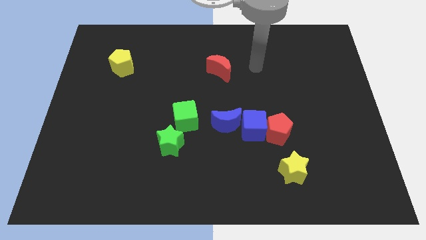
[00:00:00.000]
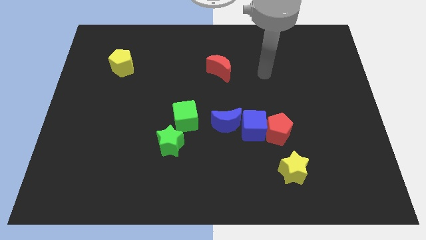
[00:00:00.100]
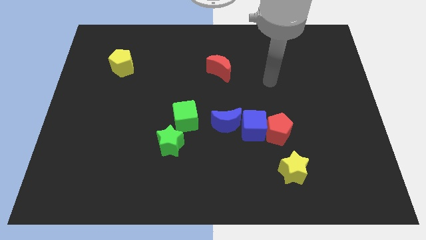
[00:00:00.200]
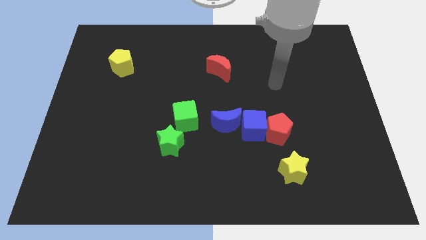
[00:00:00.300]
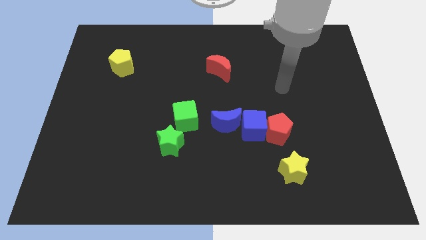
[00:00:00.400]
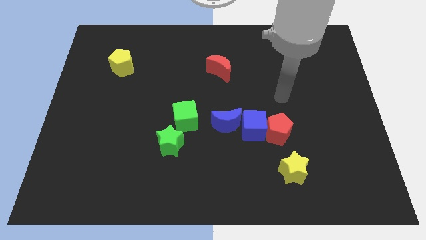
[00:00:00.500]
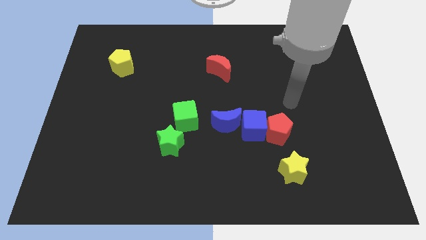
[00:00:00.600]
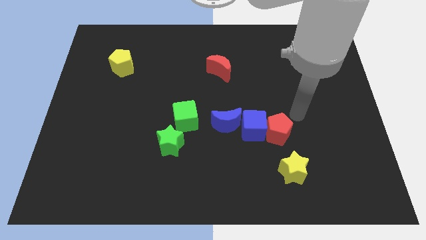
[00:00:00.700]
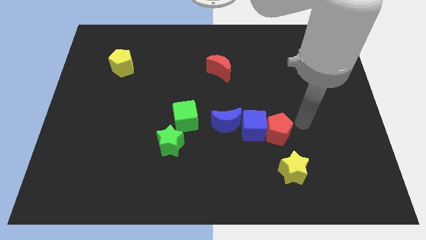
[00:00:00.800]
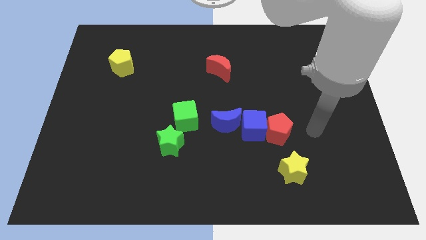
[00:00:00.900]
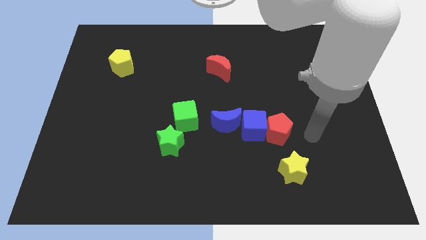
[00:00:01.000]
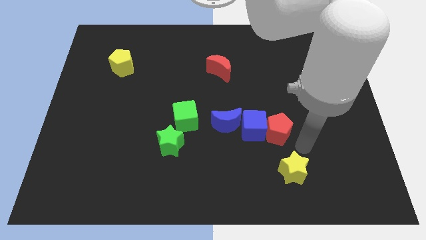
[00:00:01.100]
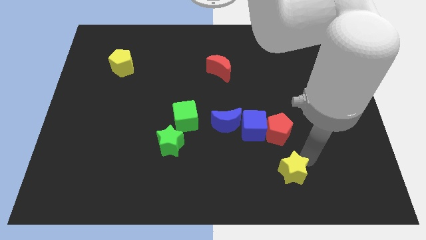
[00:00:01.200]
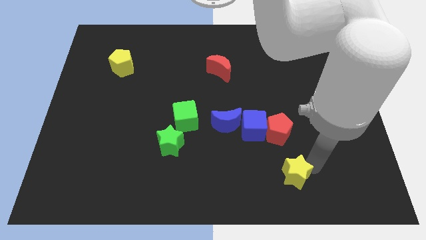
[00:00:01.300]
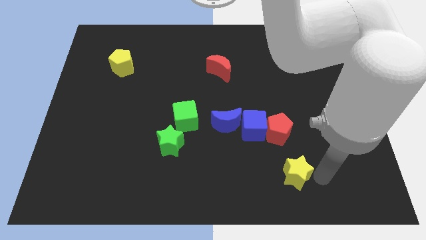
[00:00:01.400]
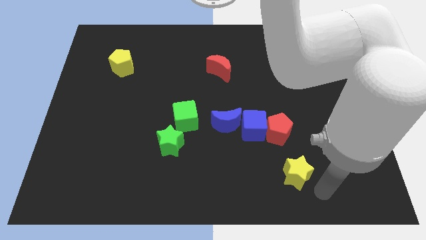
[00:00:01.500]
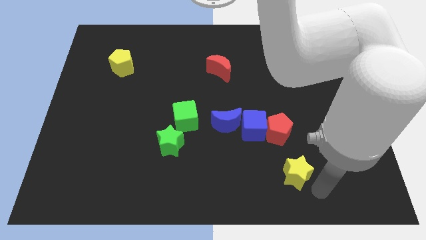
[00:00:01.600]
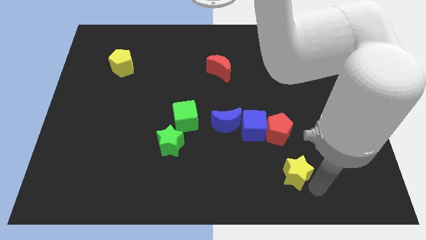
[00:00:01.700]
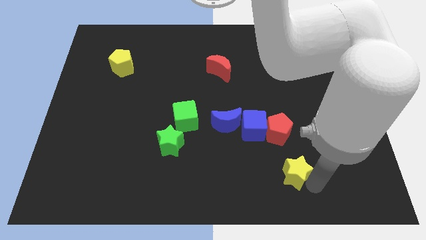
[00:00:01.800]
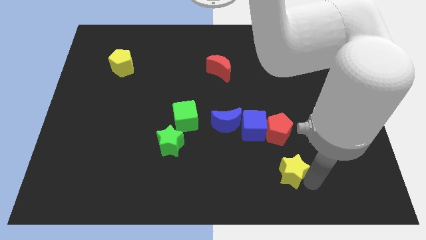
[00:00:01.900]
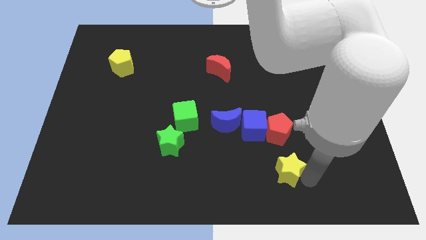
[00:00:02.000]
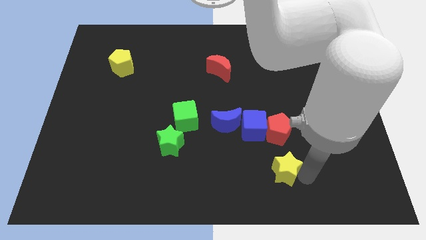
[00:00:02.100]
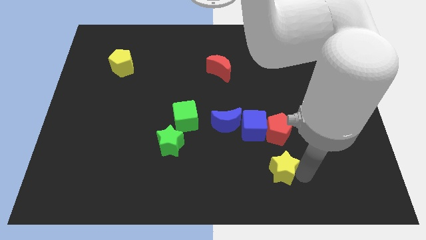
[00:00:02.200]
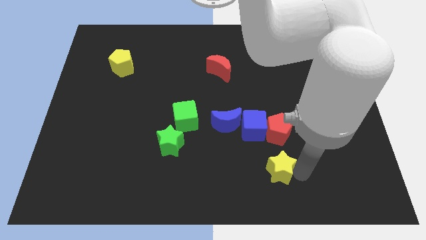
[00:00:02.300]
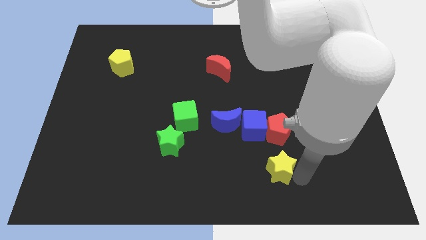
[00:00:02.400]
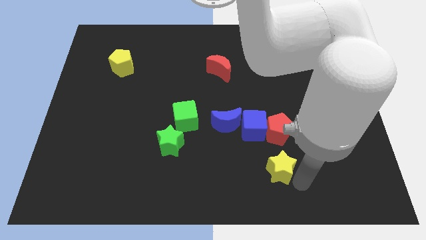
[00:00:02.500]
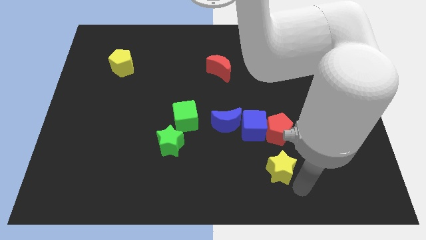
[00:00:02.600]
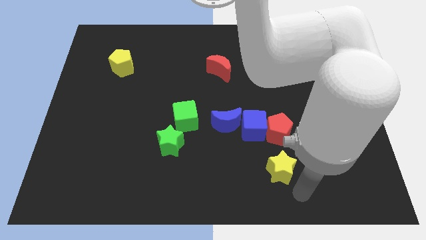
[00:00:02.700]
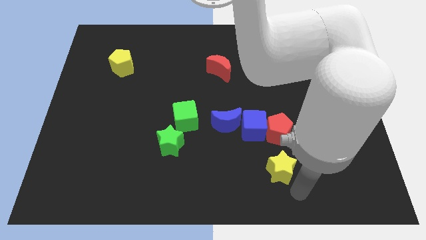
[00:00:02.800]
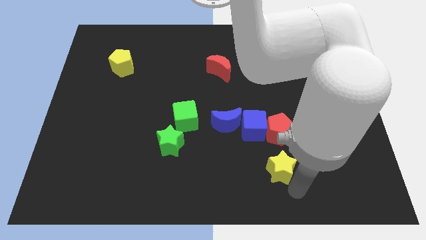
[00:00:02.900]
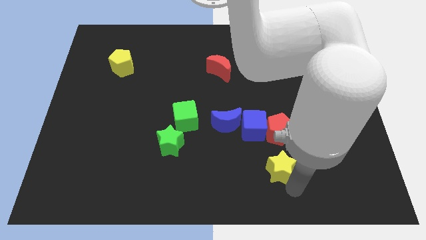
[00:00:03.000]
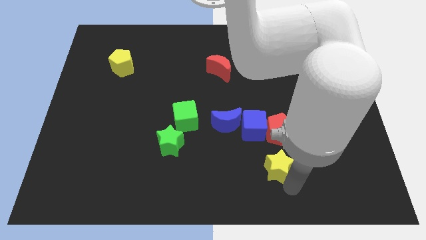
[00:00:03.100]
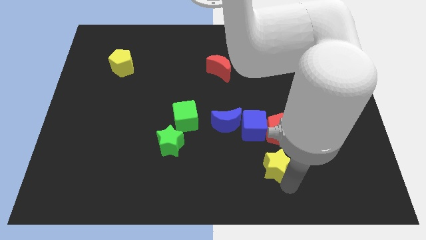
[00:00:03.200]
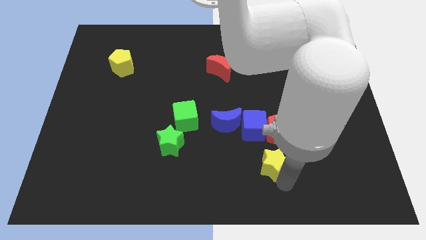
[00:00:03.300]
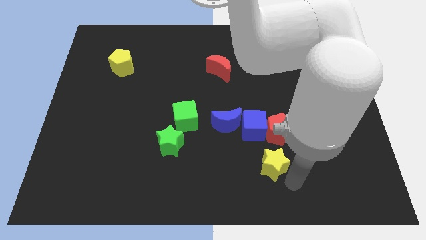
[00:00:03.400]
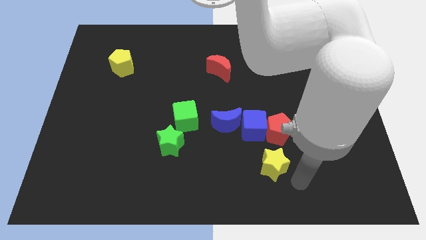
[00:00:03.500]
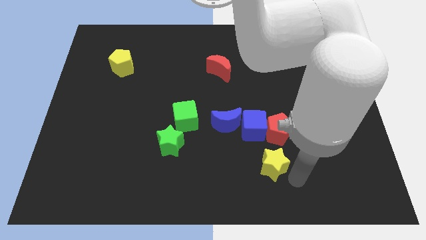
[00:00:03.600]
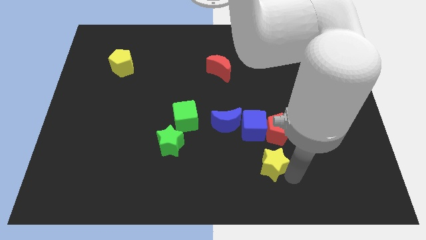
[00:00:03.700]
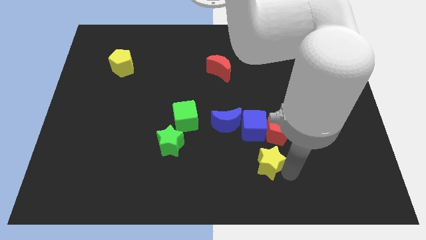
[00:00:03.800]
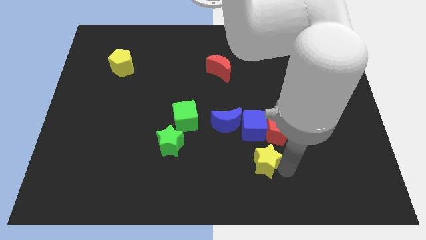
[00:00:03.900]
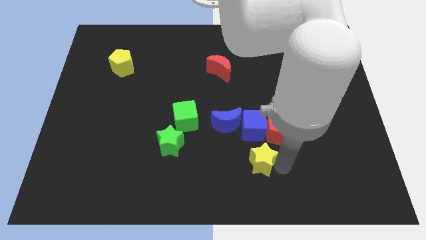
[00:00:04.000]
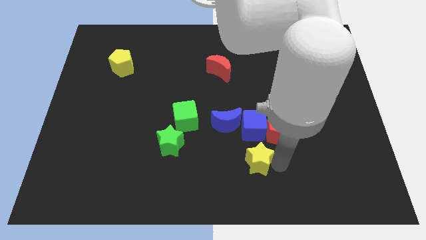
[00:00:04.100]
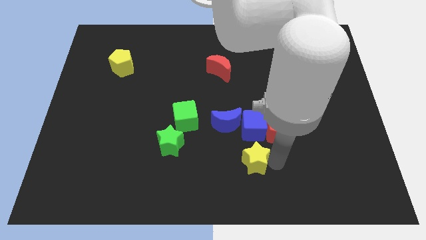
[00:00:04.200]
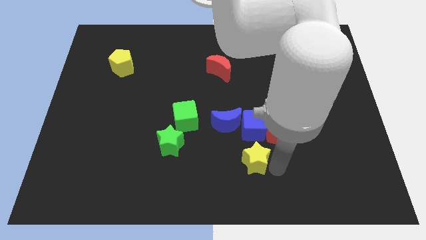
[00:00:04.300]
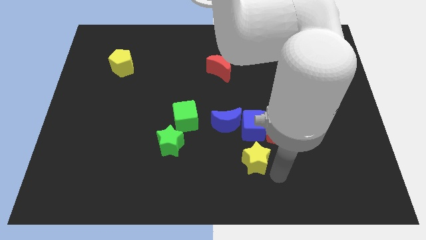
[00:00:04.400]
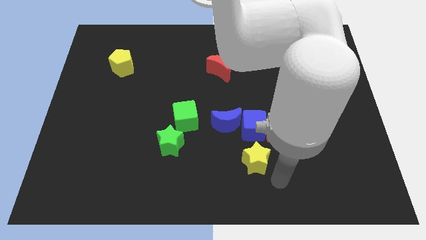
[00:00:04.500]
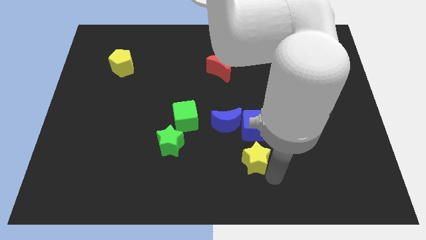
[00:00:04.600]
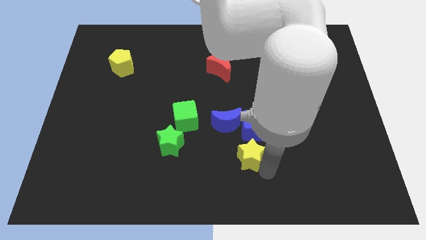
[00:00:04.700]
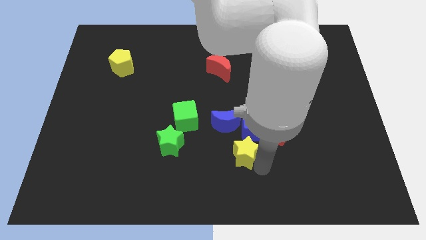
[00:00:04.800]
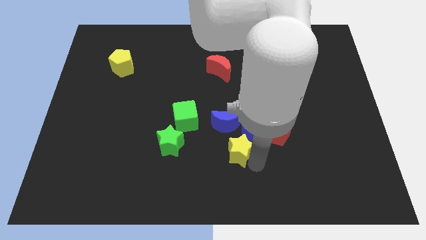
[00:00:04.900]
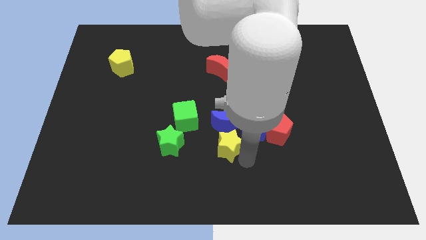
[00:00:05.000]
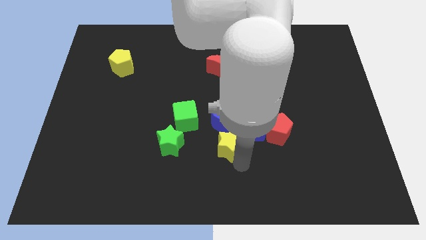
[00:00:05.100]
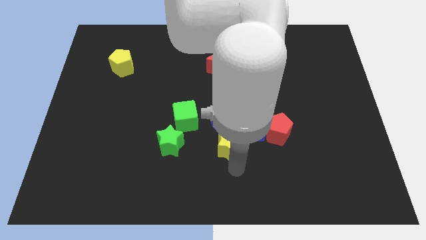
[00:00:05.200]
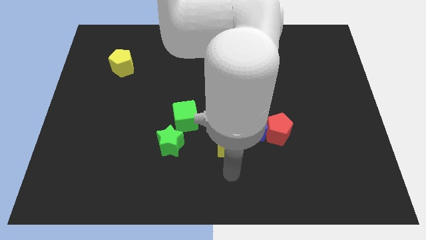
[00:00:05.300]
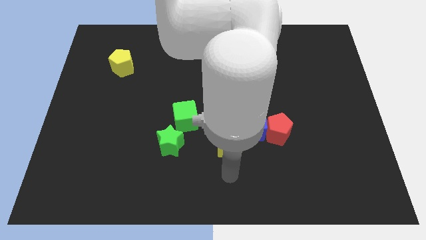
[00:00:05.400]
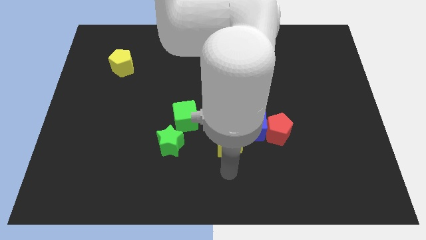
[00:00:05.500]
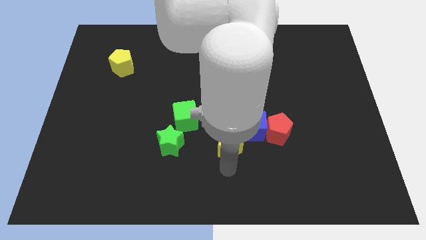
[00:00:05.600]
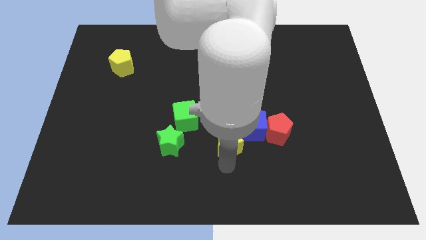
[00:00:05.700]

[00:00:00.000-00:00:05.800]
put the yellow star to the blue moon
